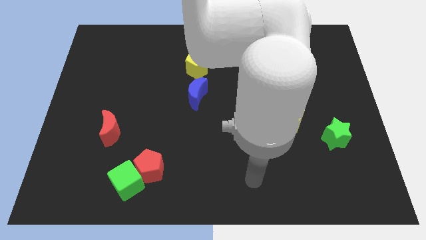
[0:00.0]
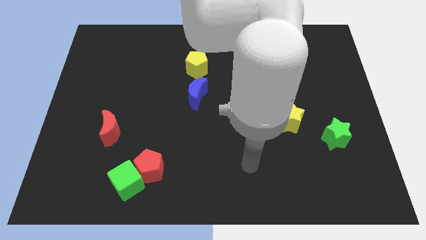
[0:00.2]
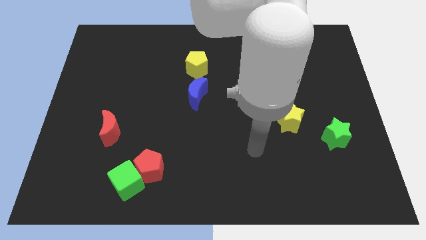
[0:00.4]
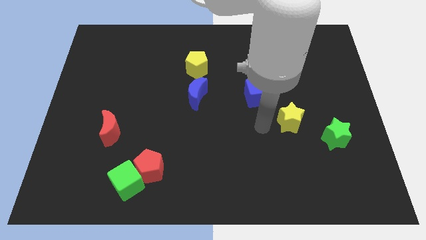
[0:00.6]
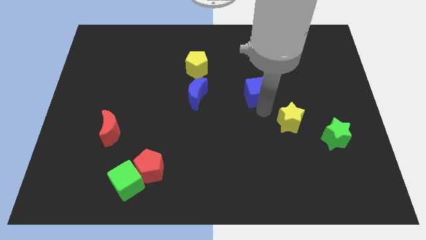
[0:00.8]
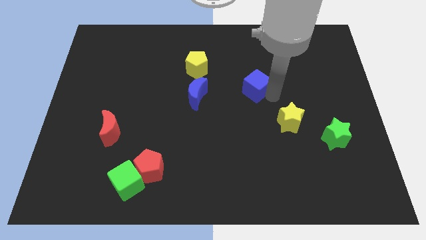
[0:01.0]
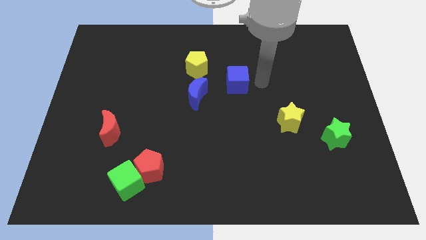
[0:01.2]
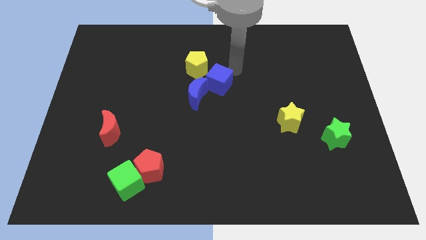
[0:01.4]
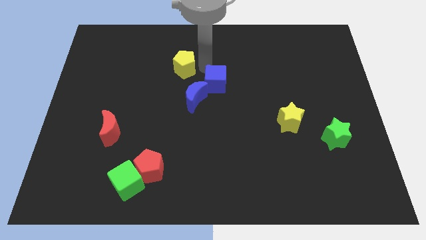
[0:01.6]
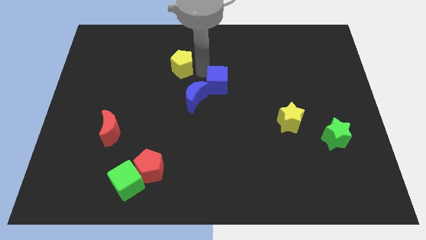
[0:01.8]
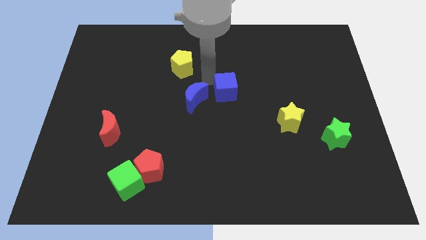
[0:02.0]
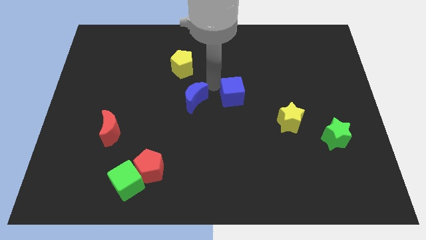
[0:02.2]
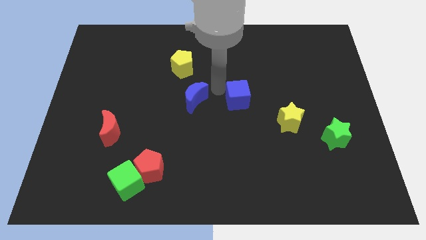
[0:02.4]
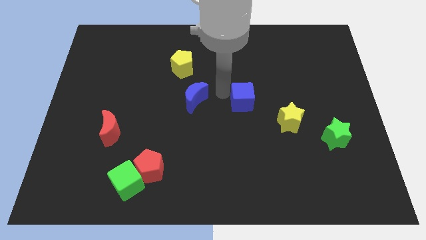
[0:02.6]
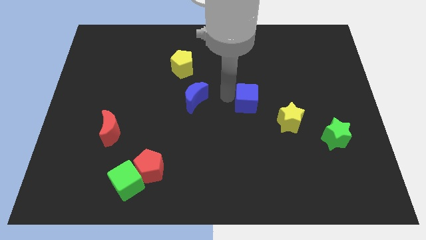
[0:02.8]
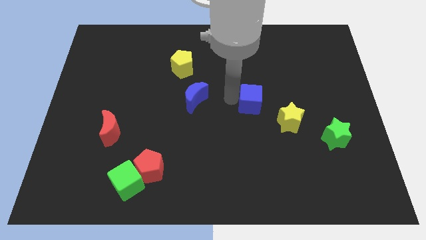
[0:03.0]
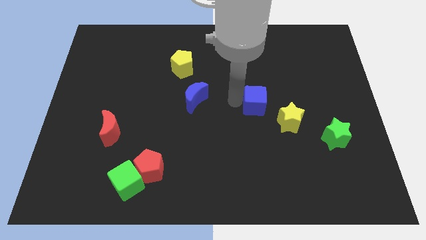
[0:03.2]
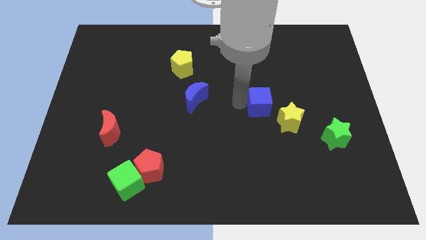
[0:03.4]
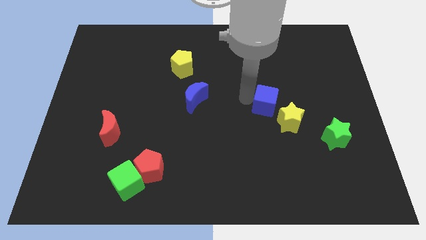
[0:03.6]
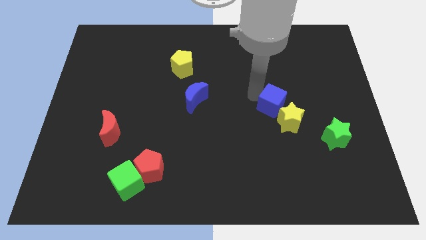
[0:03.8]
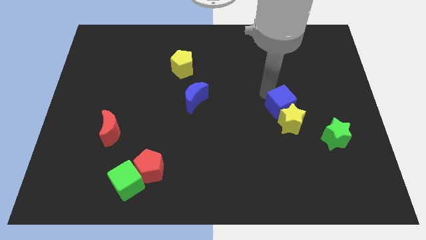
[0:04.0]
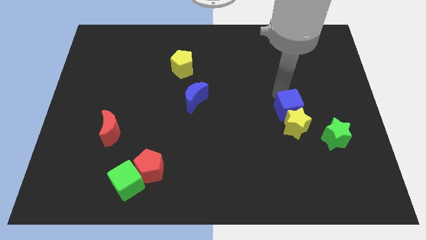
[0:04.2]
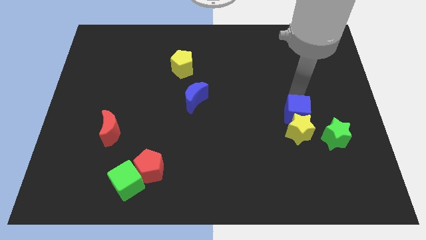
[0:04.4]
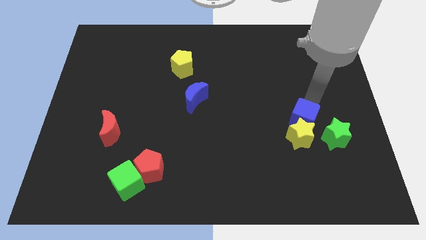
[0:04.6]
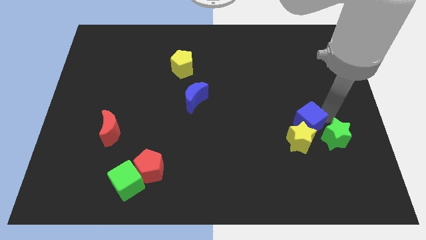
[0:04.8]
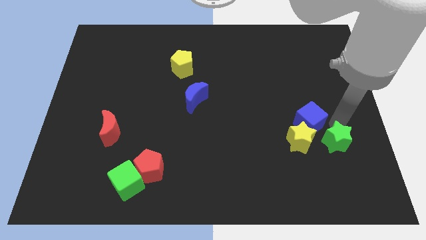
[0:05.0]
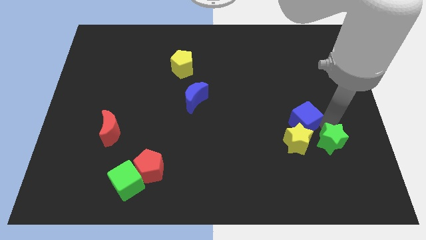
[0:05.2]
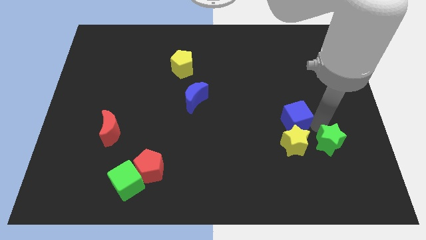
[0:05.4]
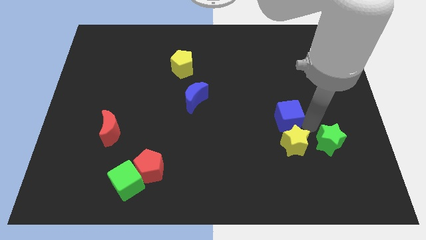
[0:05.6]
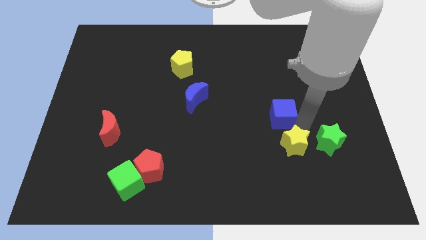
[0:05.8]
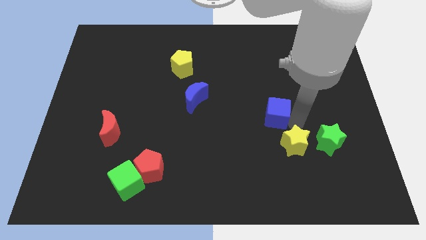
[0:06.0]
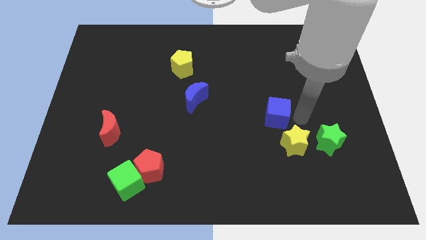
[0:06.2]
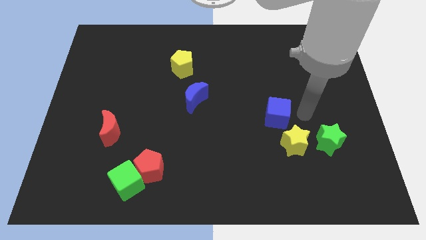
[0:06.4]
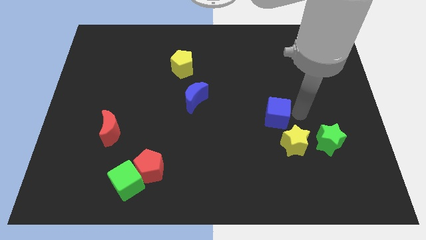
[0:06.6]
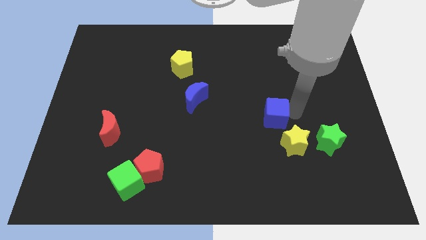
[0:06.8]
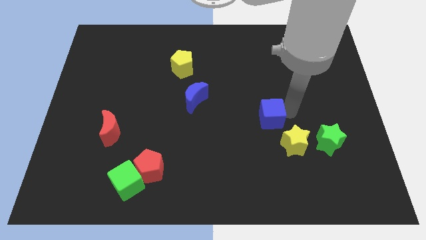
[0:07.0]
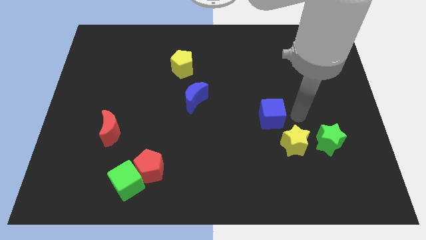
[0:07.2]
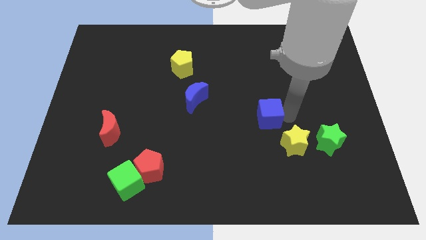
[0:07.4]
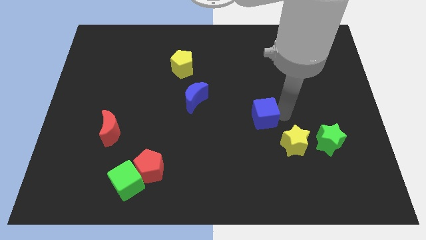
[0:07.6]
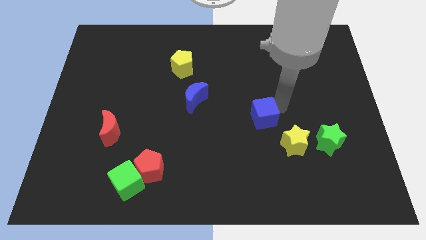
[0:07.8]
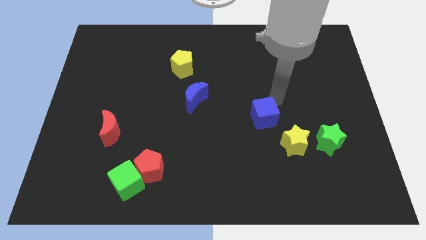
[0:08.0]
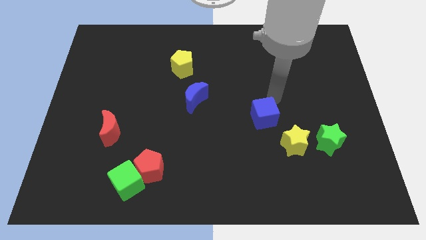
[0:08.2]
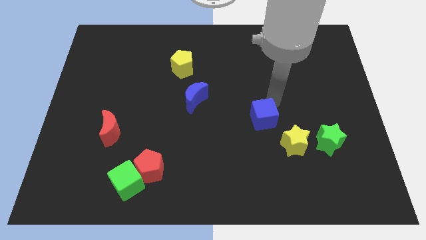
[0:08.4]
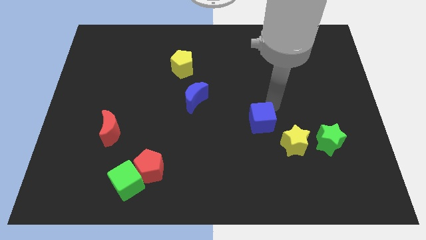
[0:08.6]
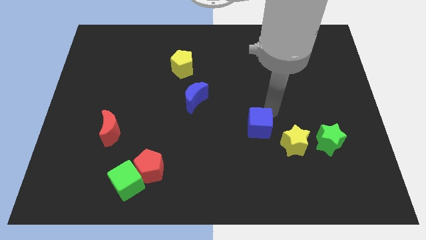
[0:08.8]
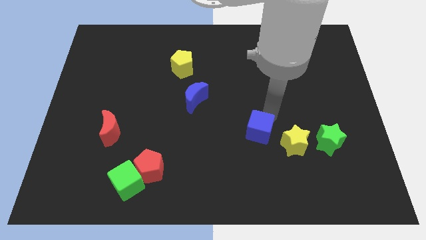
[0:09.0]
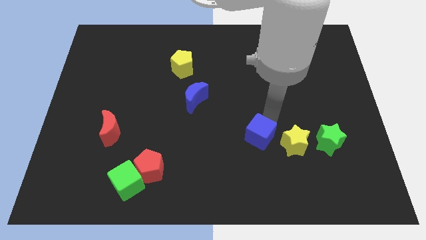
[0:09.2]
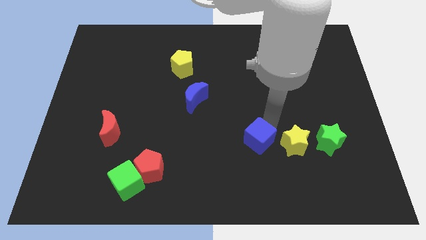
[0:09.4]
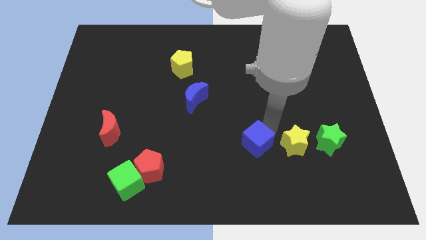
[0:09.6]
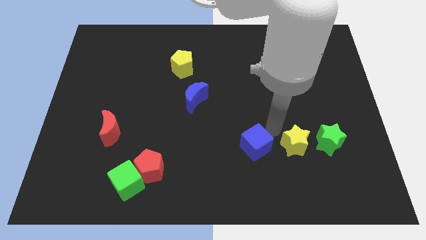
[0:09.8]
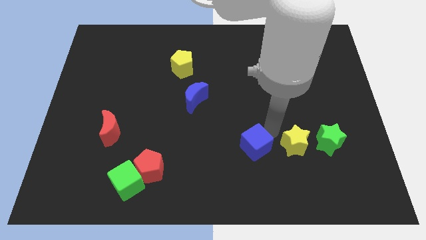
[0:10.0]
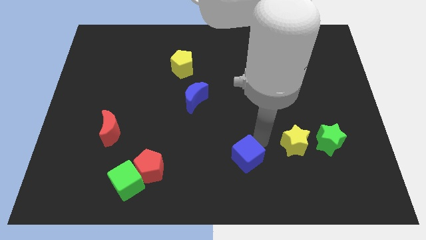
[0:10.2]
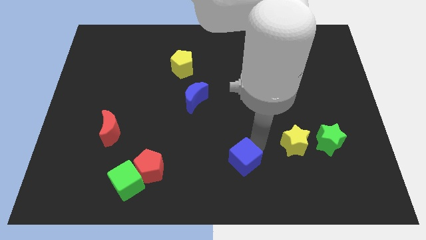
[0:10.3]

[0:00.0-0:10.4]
slide the blue cube to the bottom

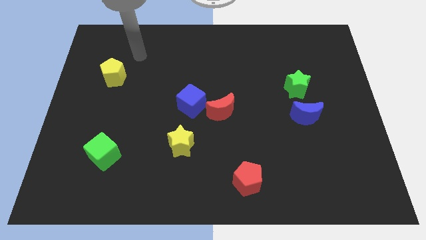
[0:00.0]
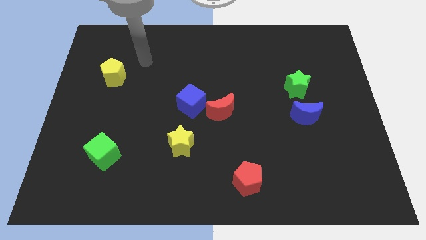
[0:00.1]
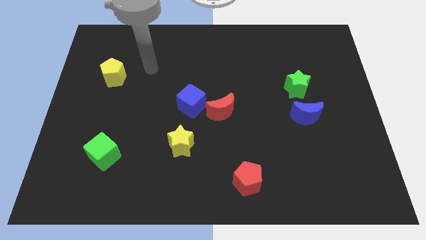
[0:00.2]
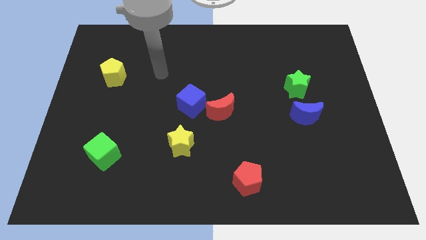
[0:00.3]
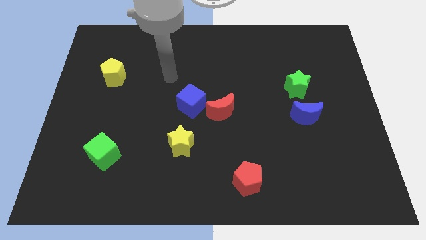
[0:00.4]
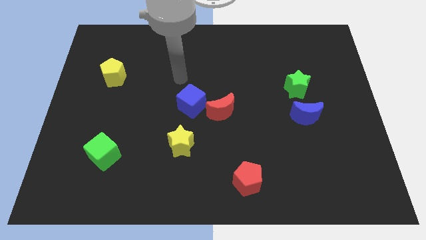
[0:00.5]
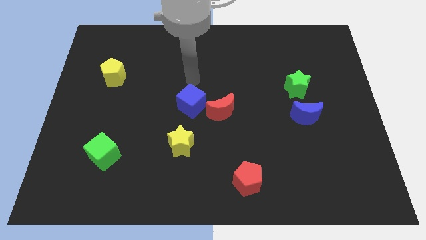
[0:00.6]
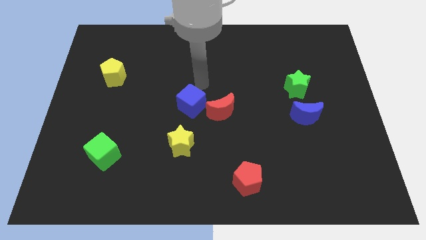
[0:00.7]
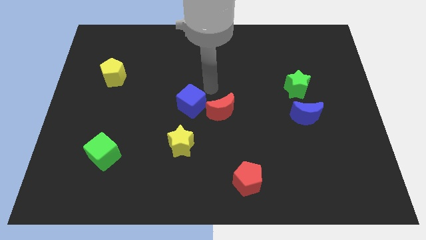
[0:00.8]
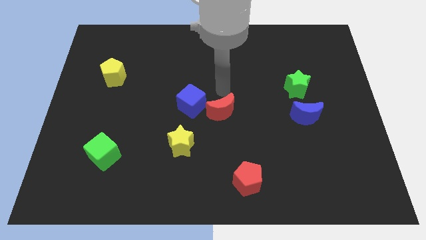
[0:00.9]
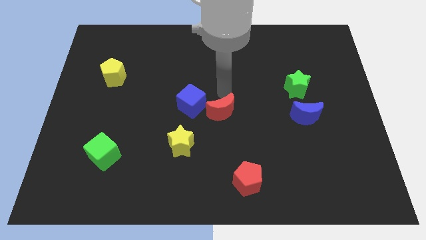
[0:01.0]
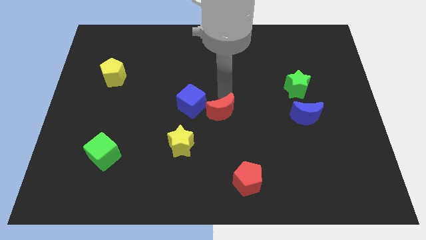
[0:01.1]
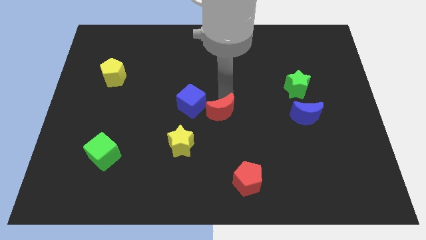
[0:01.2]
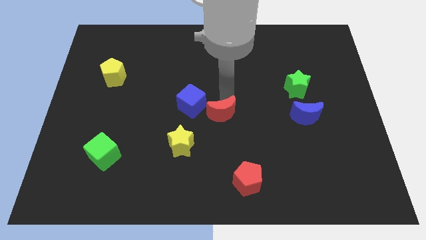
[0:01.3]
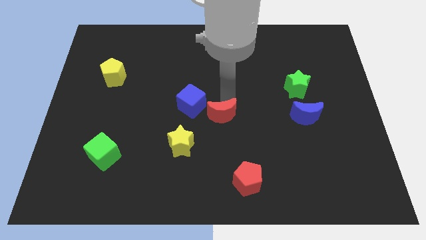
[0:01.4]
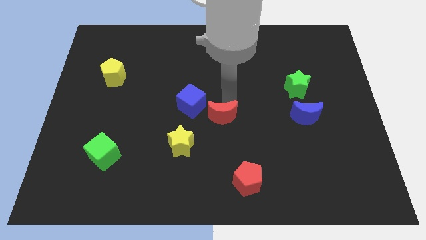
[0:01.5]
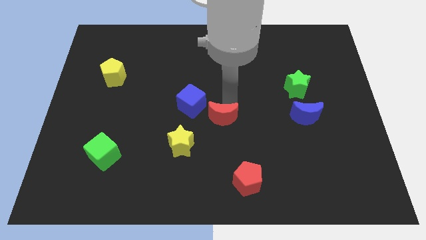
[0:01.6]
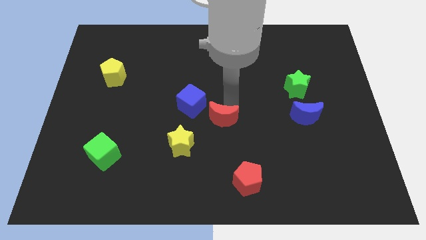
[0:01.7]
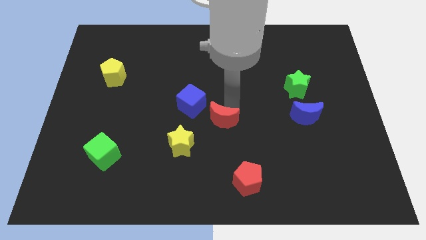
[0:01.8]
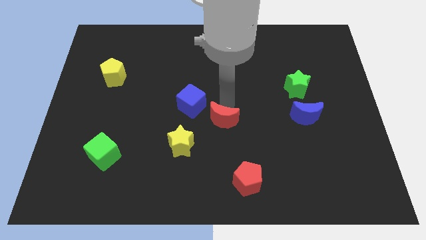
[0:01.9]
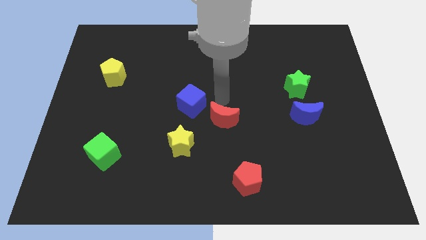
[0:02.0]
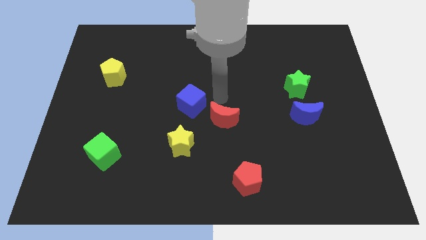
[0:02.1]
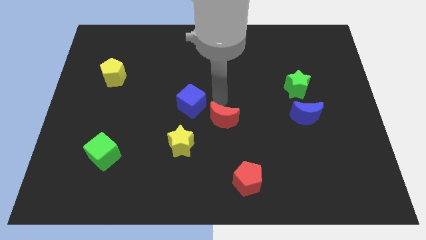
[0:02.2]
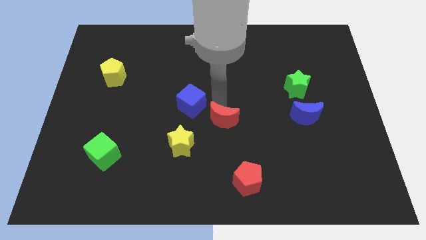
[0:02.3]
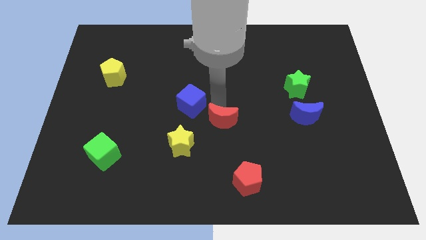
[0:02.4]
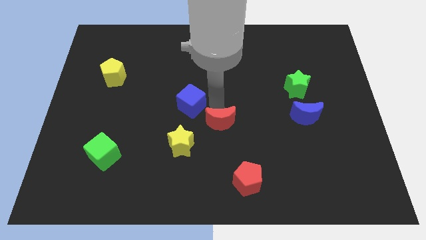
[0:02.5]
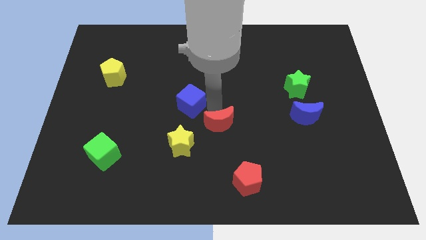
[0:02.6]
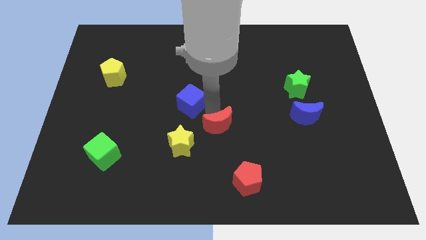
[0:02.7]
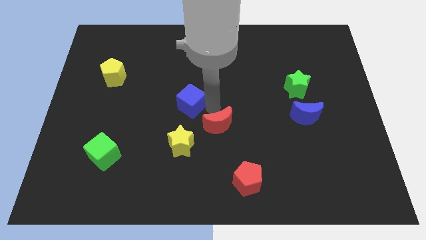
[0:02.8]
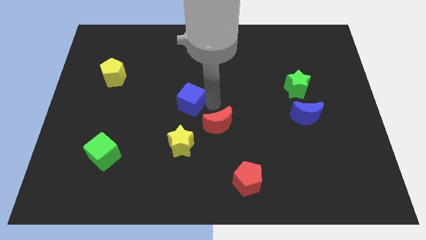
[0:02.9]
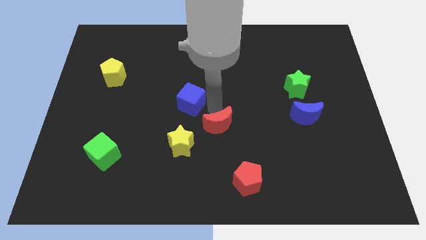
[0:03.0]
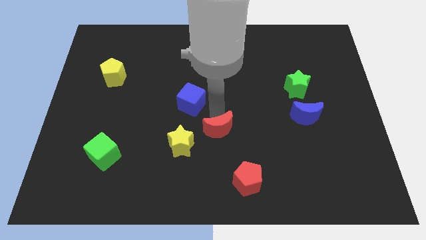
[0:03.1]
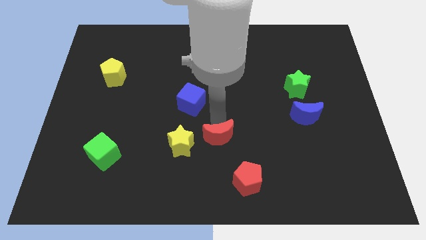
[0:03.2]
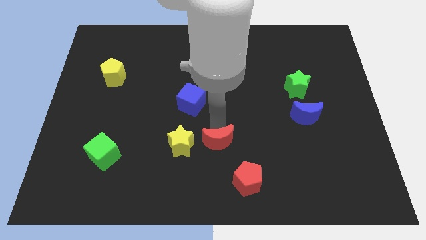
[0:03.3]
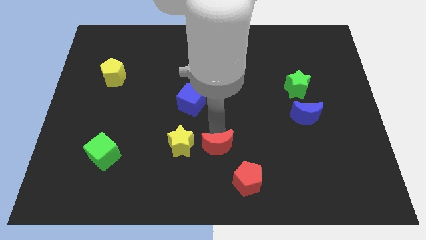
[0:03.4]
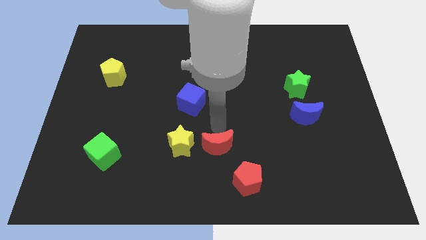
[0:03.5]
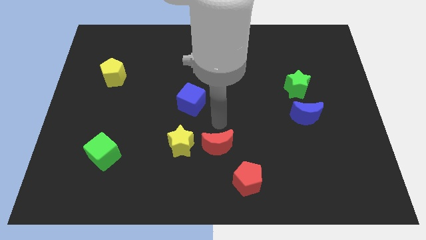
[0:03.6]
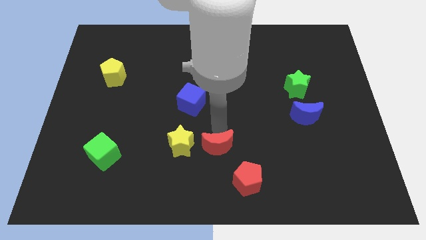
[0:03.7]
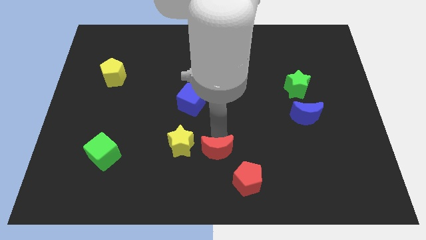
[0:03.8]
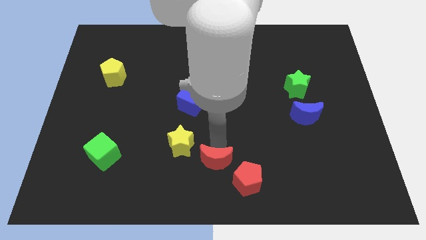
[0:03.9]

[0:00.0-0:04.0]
move the red moon to the bottom
